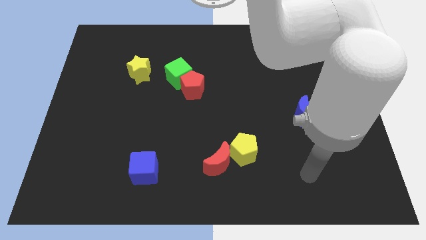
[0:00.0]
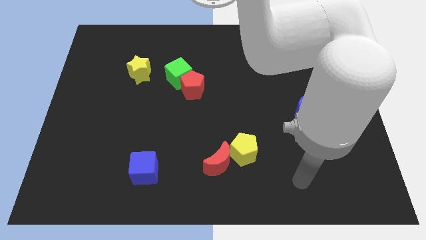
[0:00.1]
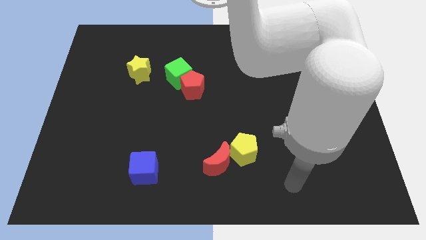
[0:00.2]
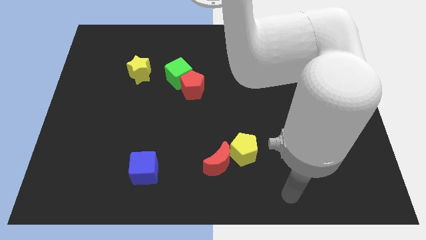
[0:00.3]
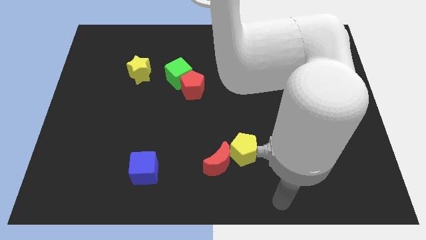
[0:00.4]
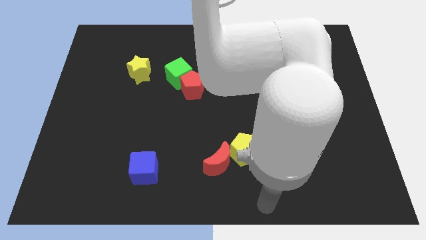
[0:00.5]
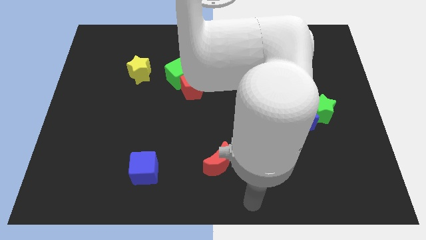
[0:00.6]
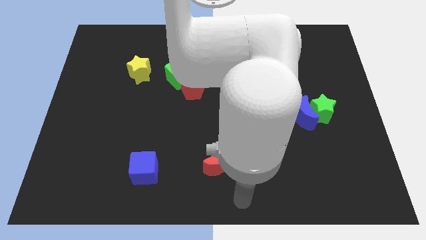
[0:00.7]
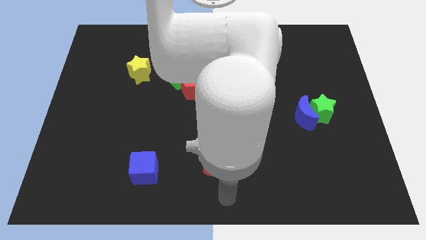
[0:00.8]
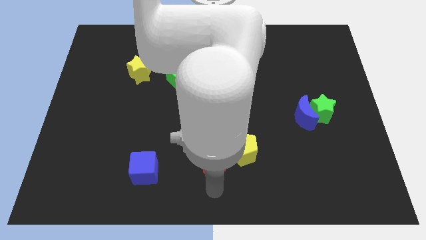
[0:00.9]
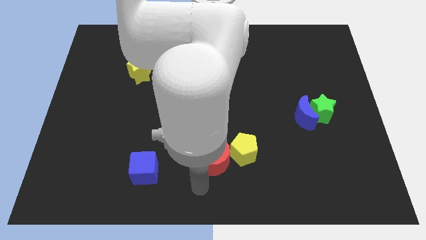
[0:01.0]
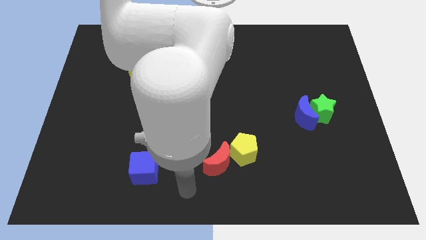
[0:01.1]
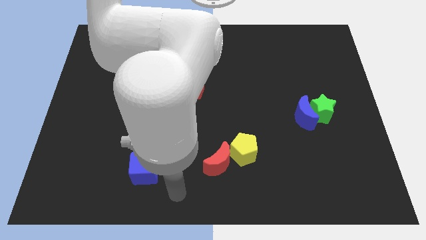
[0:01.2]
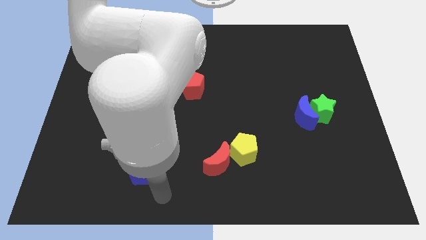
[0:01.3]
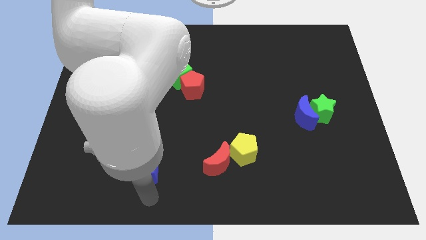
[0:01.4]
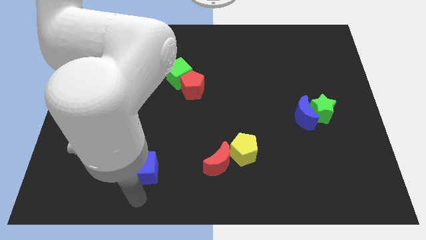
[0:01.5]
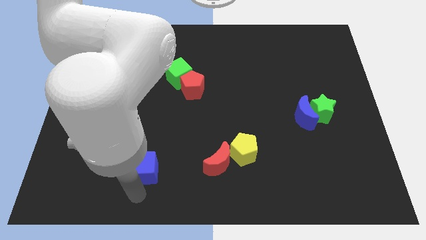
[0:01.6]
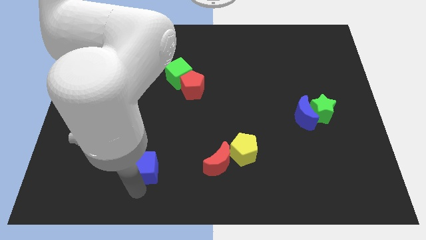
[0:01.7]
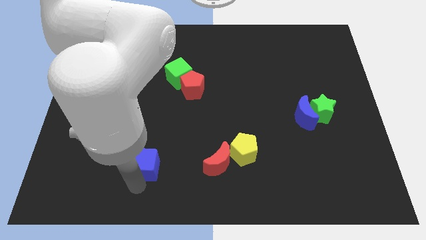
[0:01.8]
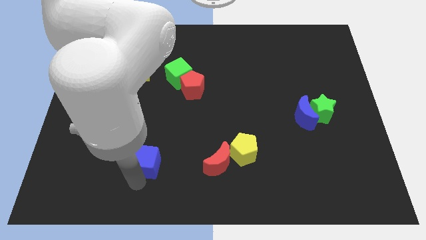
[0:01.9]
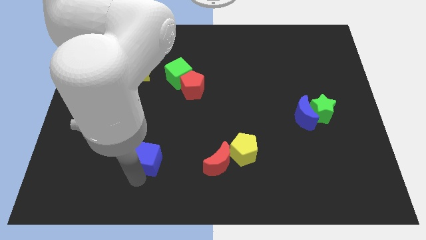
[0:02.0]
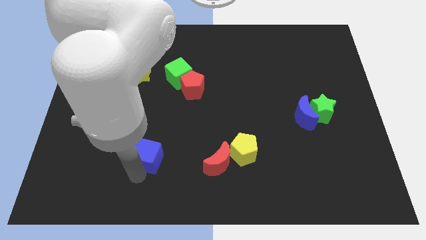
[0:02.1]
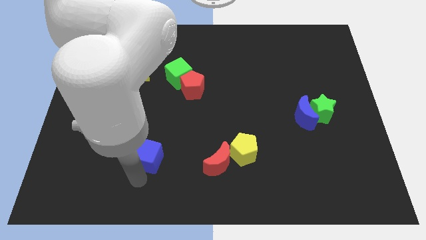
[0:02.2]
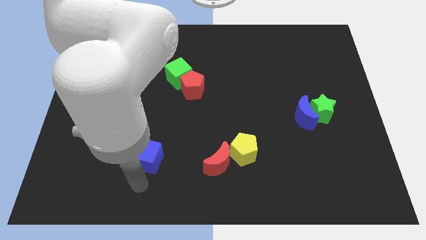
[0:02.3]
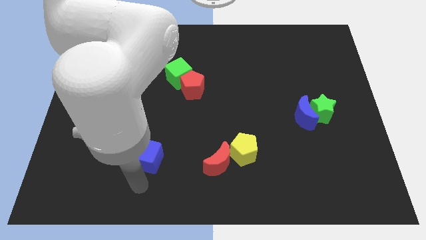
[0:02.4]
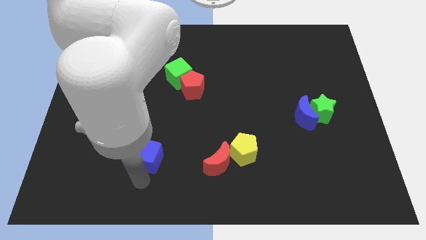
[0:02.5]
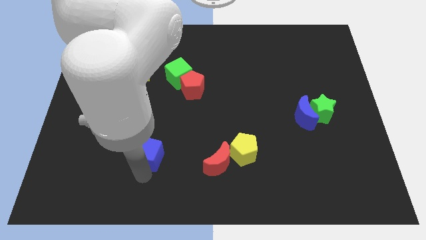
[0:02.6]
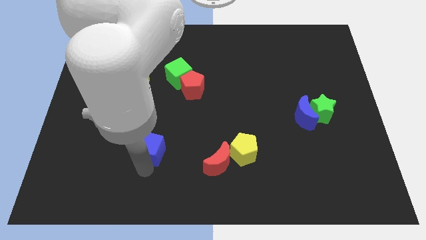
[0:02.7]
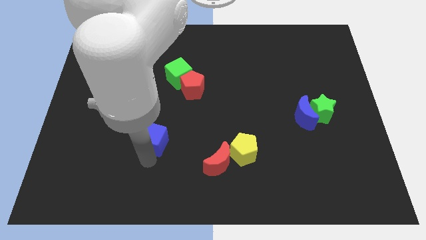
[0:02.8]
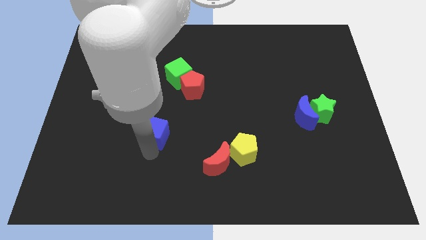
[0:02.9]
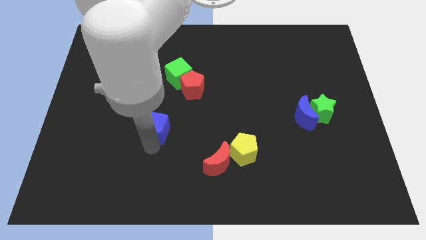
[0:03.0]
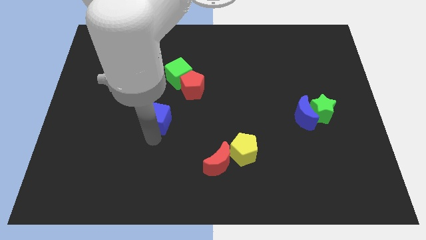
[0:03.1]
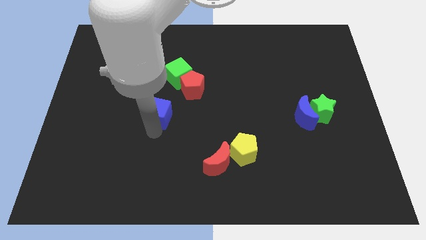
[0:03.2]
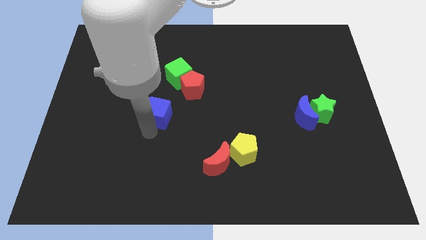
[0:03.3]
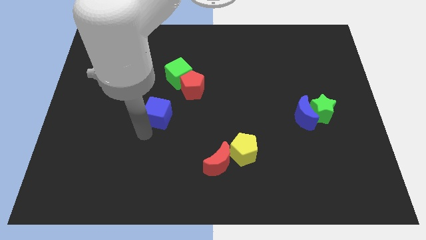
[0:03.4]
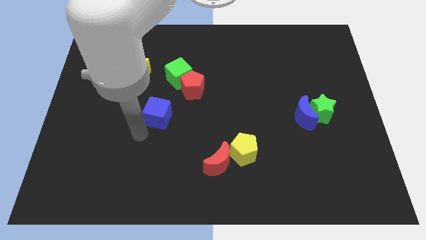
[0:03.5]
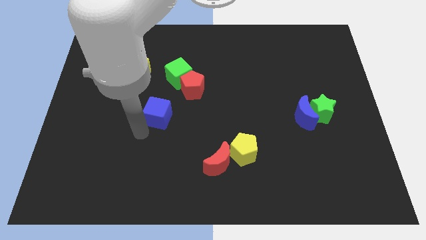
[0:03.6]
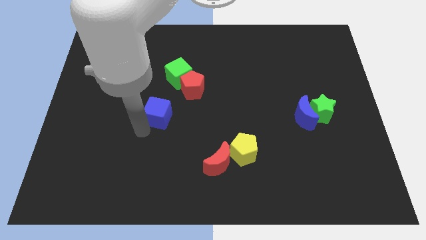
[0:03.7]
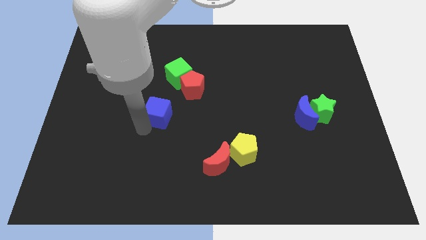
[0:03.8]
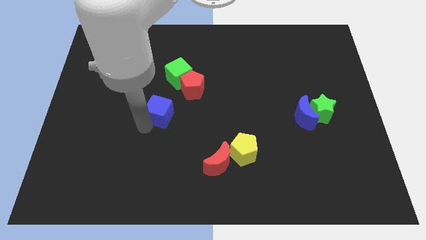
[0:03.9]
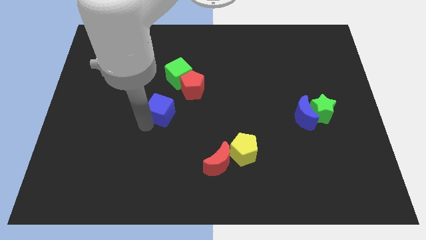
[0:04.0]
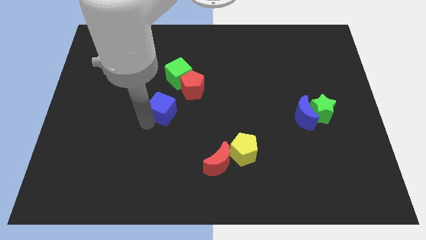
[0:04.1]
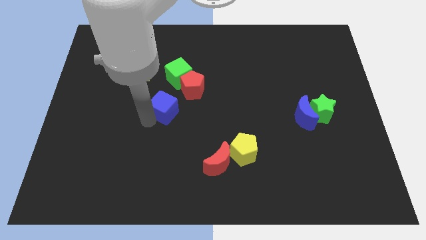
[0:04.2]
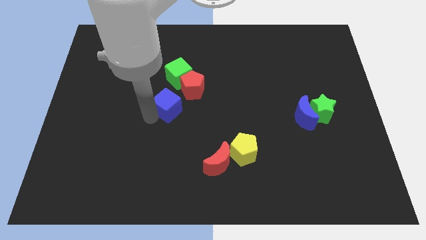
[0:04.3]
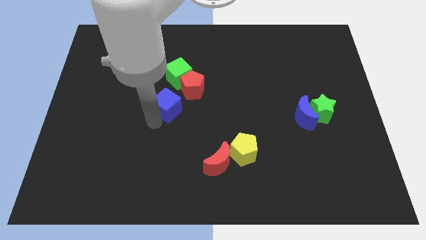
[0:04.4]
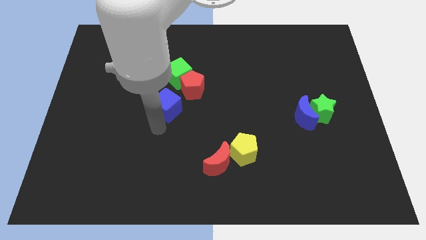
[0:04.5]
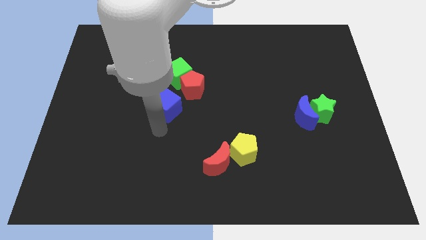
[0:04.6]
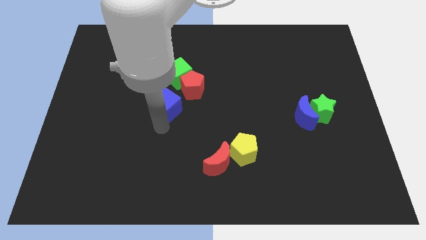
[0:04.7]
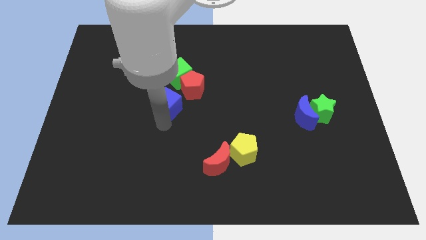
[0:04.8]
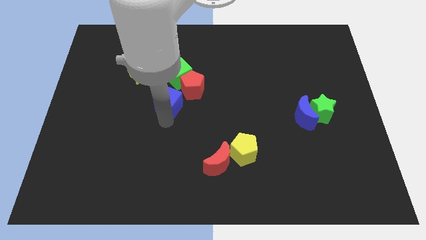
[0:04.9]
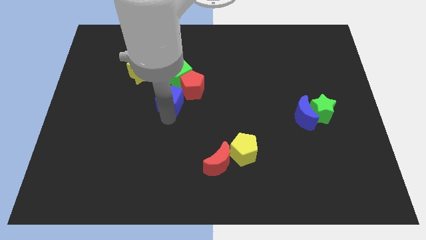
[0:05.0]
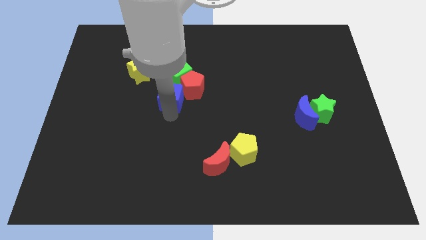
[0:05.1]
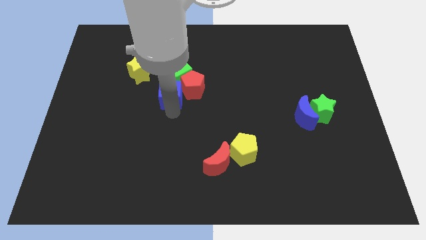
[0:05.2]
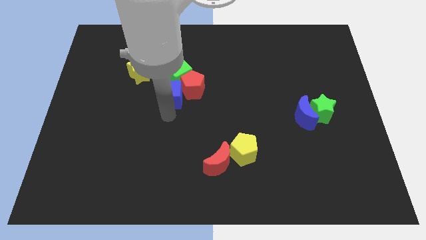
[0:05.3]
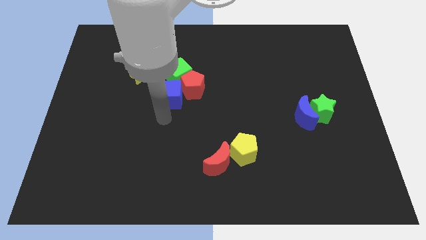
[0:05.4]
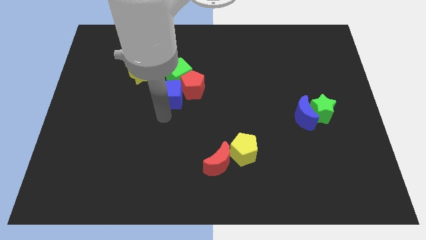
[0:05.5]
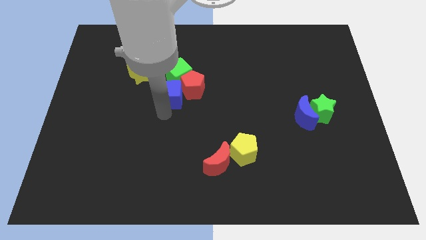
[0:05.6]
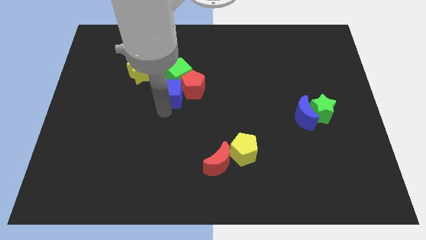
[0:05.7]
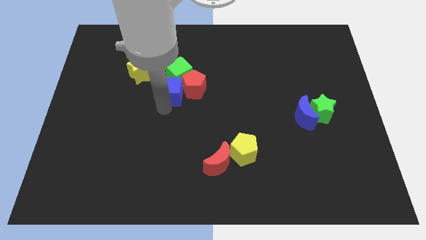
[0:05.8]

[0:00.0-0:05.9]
put the blue cube to the green cube

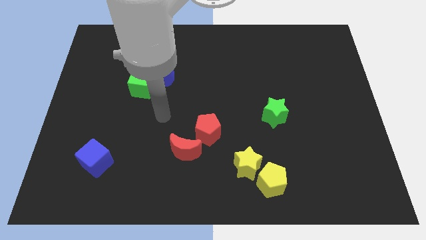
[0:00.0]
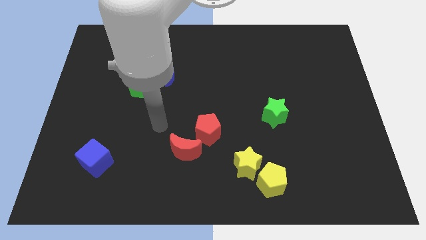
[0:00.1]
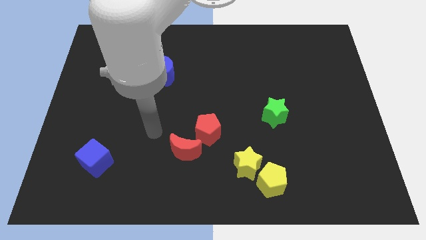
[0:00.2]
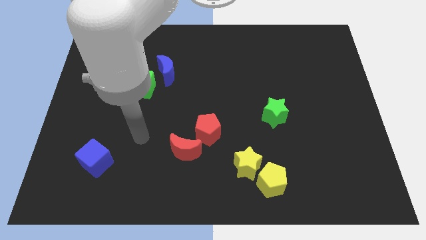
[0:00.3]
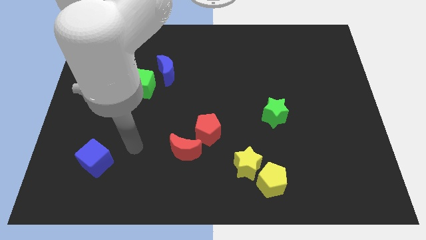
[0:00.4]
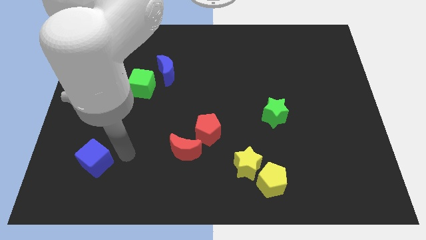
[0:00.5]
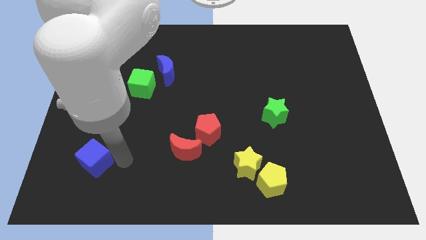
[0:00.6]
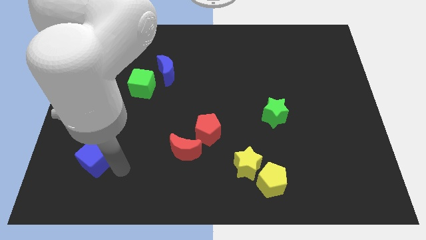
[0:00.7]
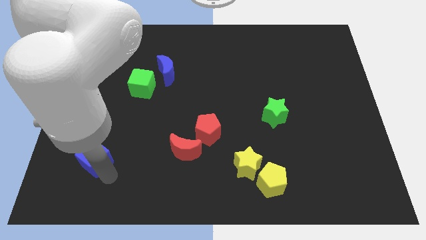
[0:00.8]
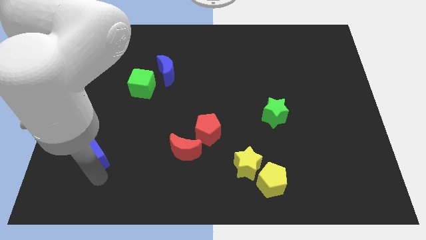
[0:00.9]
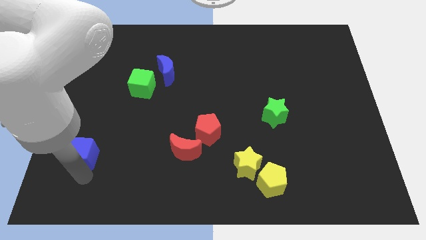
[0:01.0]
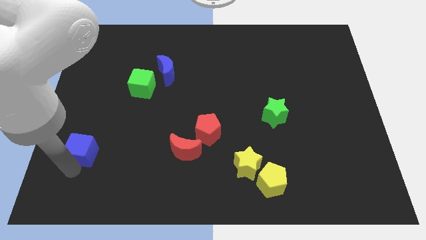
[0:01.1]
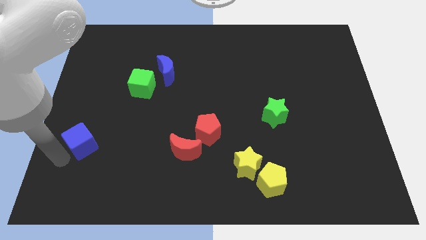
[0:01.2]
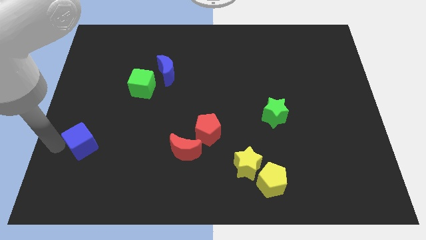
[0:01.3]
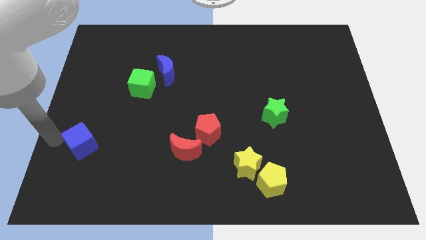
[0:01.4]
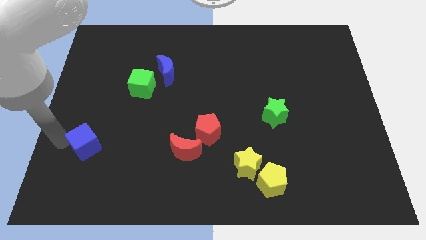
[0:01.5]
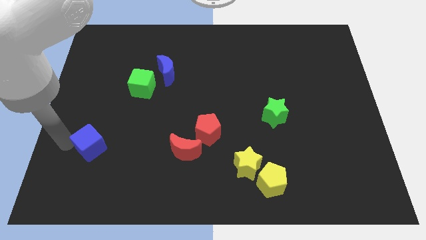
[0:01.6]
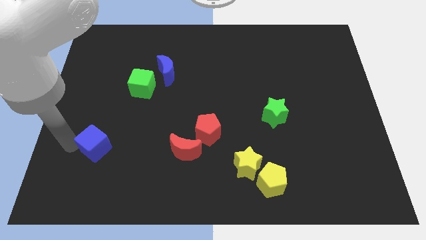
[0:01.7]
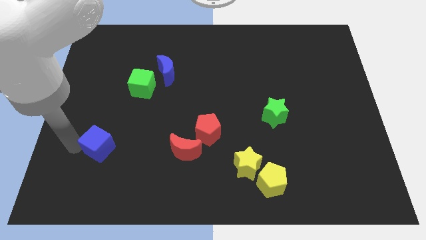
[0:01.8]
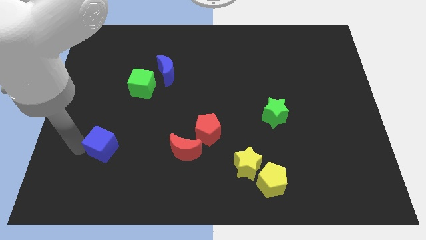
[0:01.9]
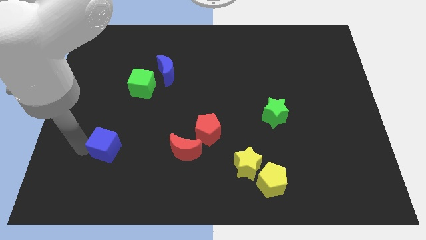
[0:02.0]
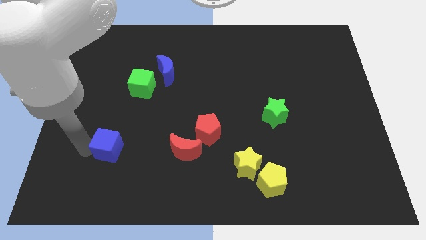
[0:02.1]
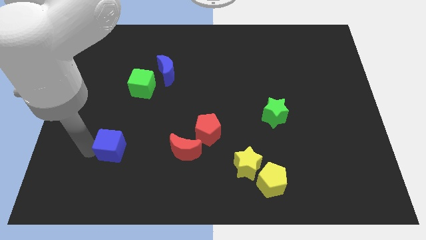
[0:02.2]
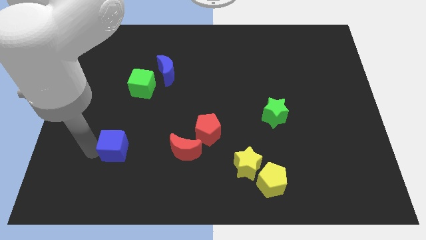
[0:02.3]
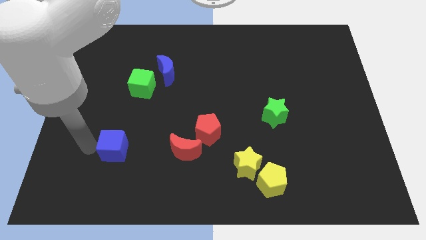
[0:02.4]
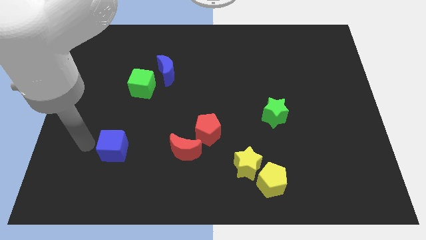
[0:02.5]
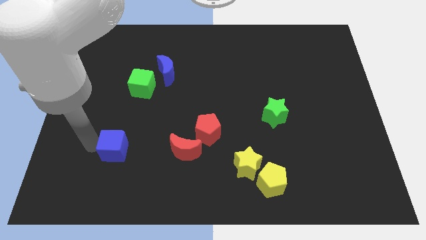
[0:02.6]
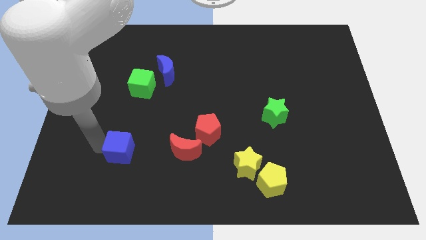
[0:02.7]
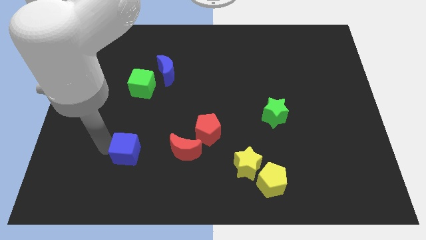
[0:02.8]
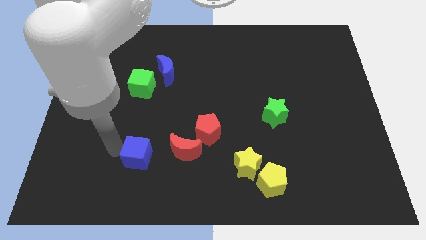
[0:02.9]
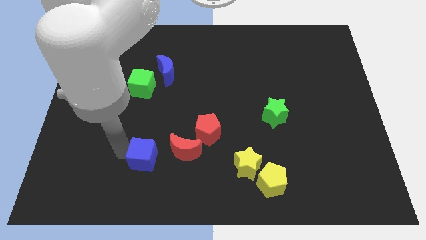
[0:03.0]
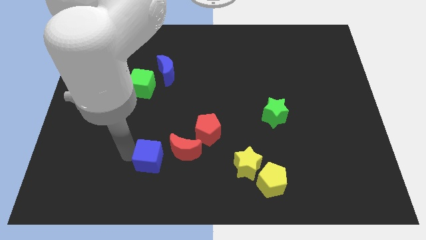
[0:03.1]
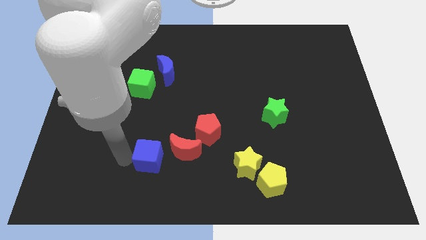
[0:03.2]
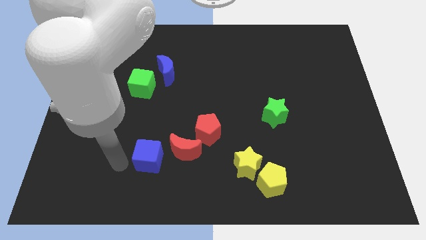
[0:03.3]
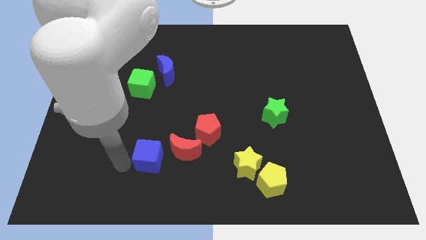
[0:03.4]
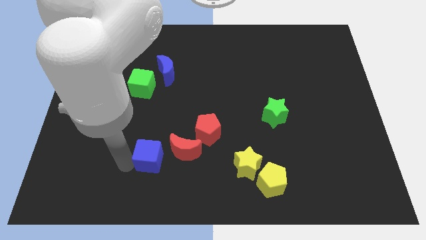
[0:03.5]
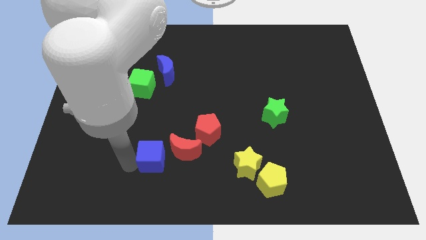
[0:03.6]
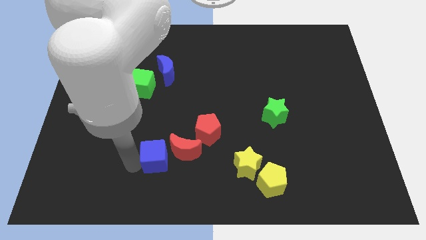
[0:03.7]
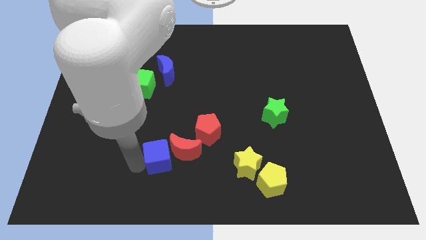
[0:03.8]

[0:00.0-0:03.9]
slide the blue cube close to the red moon
